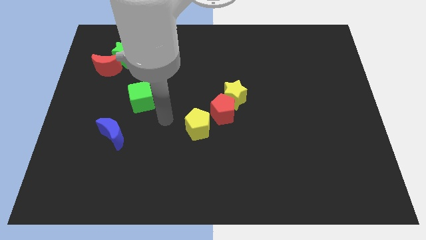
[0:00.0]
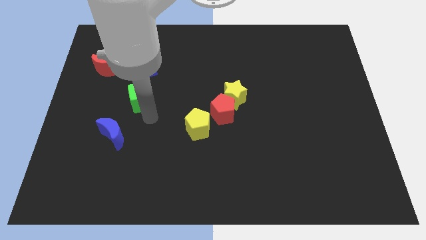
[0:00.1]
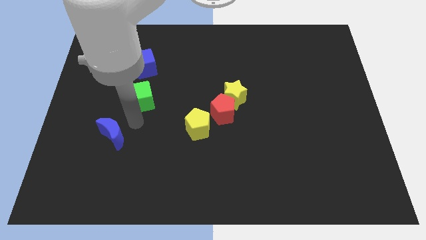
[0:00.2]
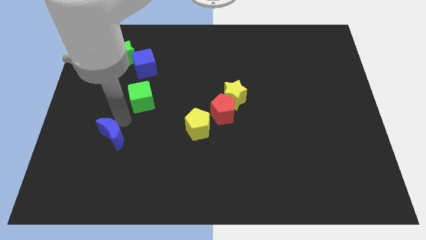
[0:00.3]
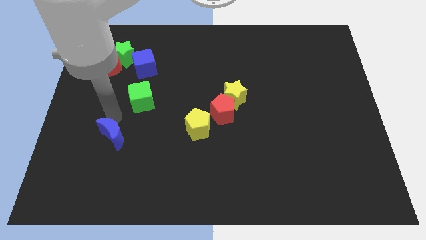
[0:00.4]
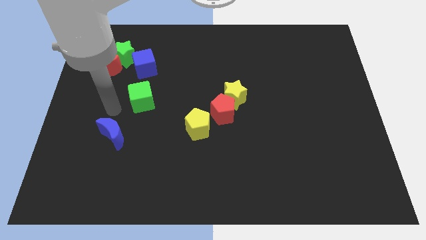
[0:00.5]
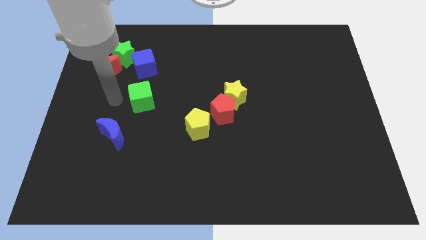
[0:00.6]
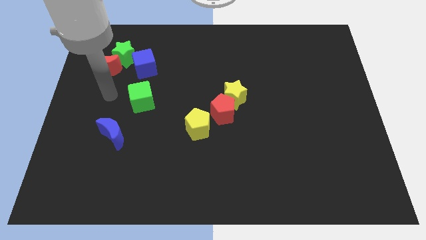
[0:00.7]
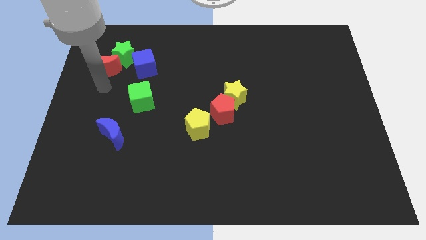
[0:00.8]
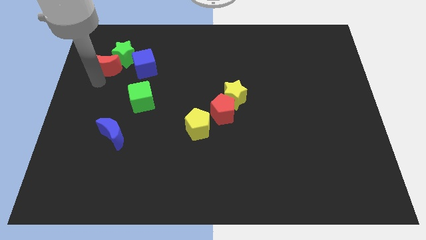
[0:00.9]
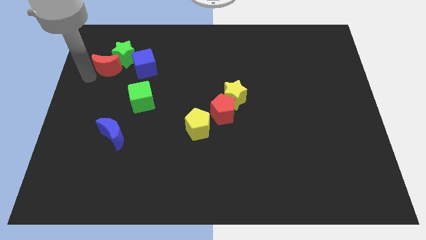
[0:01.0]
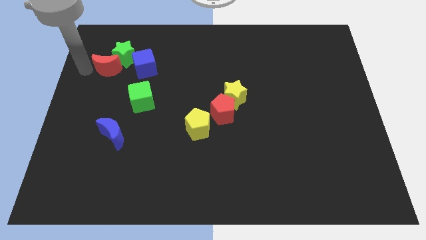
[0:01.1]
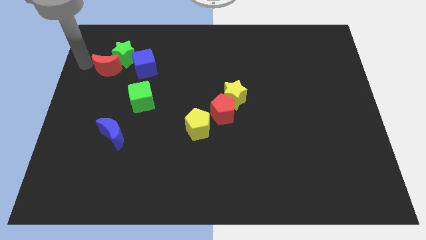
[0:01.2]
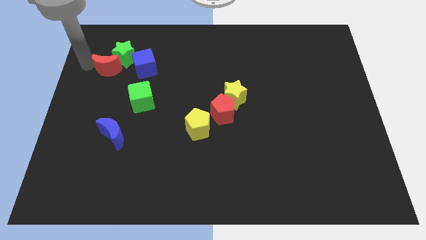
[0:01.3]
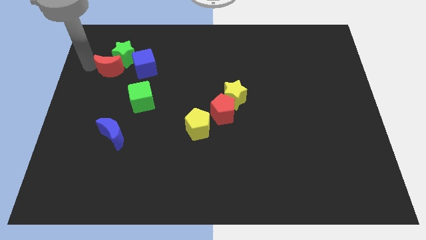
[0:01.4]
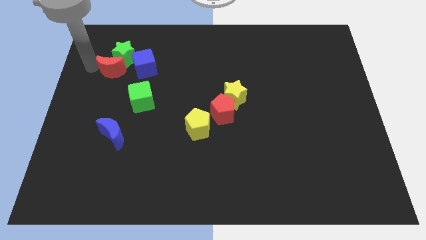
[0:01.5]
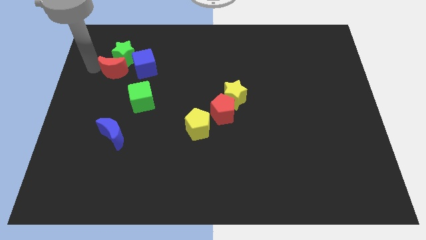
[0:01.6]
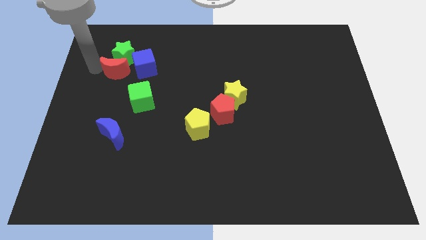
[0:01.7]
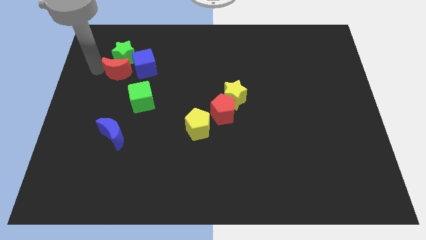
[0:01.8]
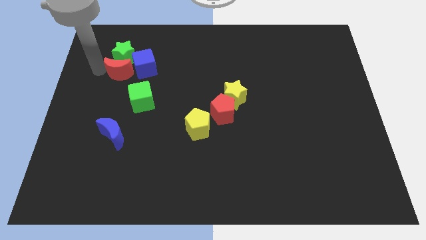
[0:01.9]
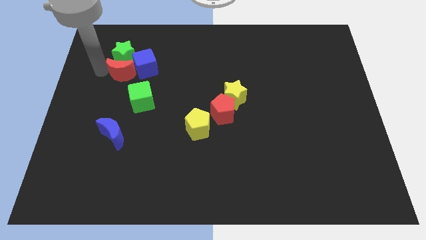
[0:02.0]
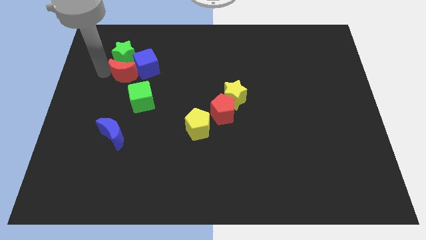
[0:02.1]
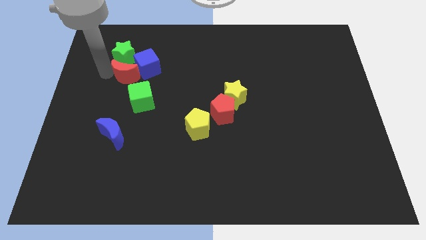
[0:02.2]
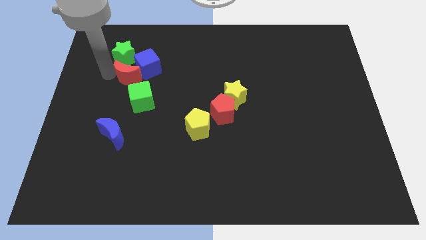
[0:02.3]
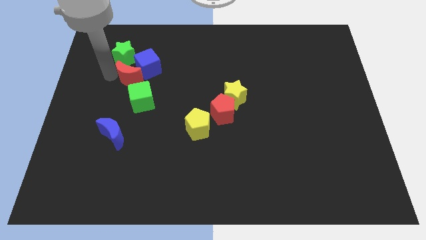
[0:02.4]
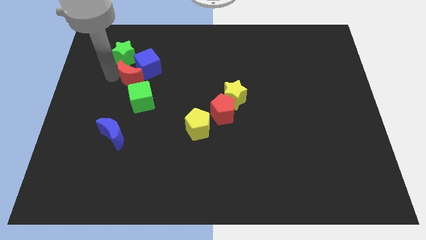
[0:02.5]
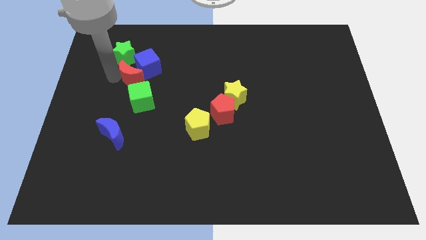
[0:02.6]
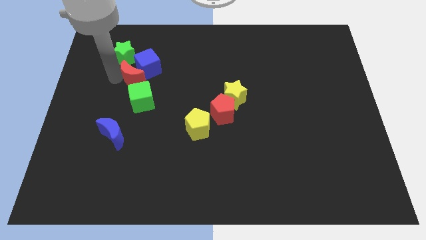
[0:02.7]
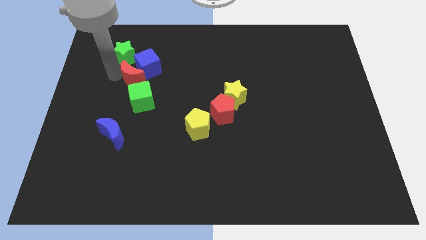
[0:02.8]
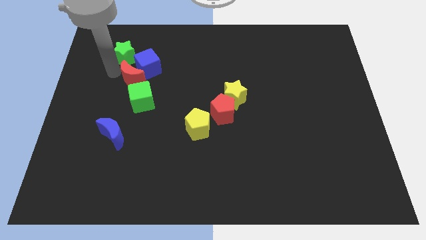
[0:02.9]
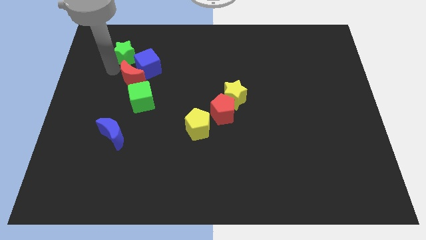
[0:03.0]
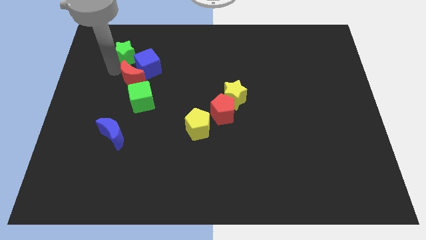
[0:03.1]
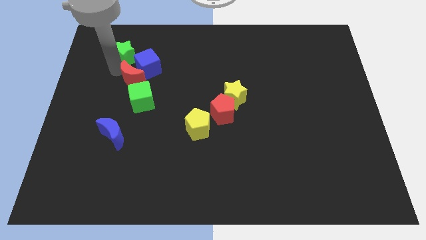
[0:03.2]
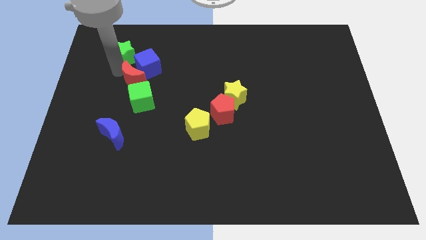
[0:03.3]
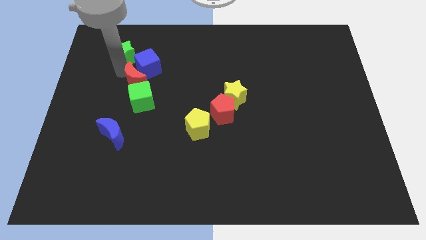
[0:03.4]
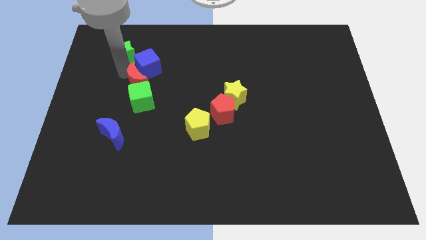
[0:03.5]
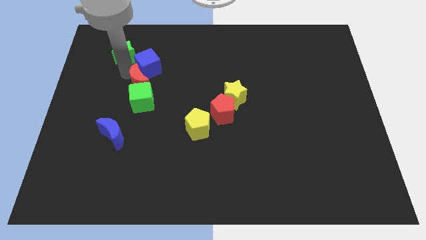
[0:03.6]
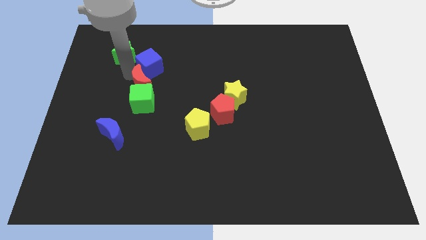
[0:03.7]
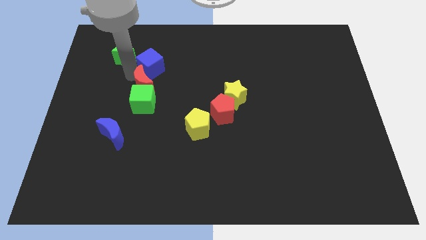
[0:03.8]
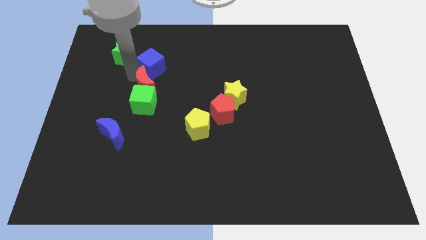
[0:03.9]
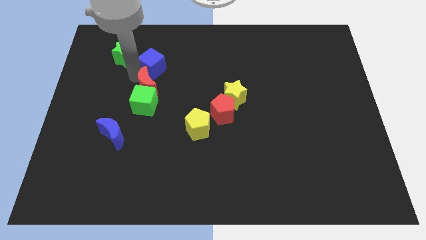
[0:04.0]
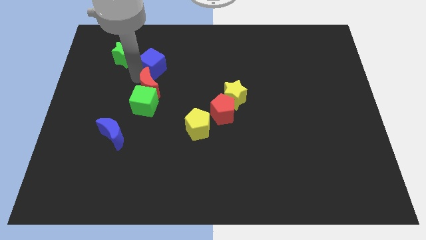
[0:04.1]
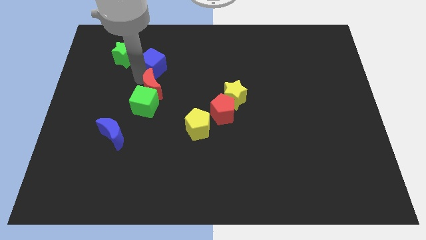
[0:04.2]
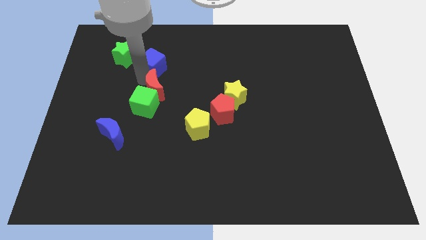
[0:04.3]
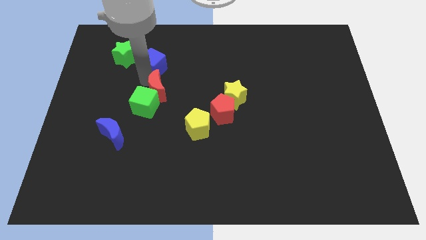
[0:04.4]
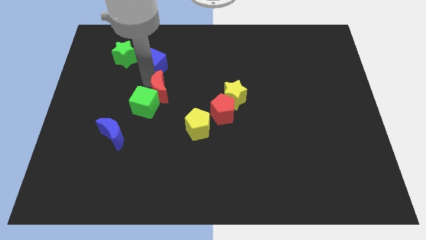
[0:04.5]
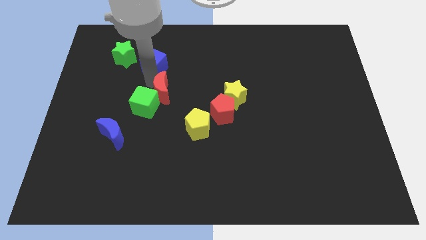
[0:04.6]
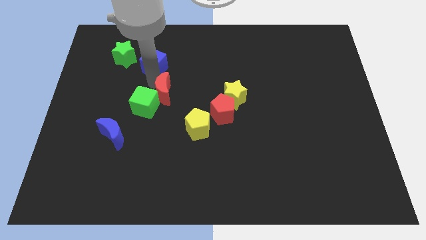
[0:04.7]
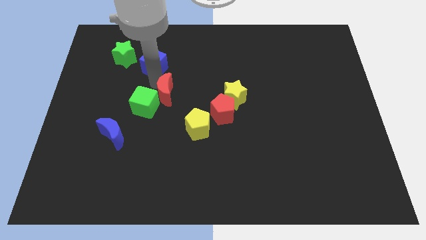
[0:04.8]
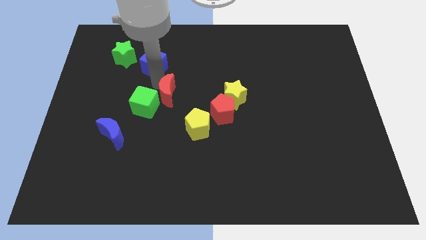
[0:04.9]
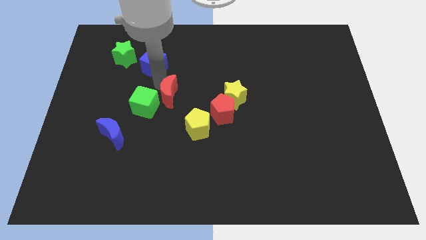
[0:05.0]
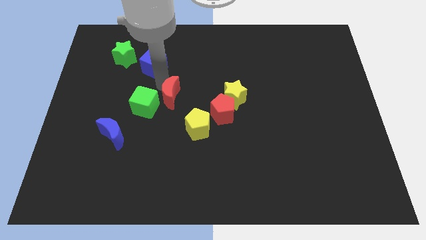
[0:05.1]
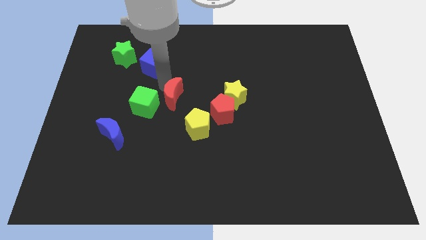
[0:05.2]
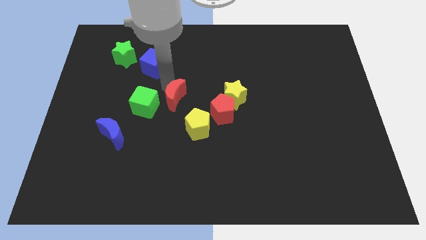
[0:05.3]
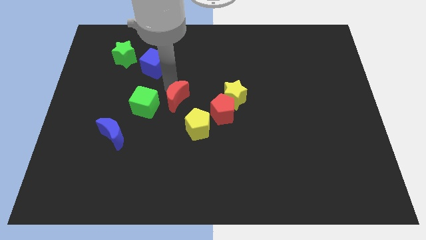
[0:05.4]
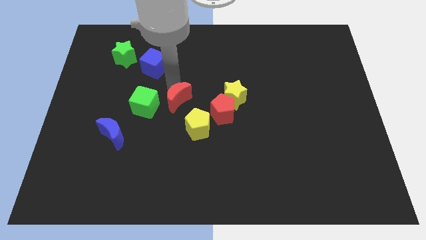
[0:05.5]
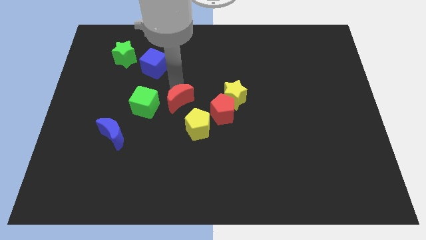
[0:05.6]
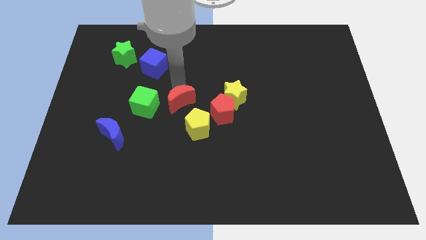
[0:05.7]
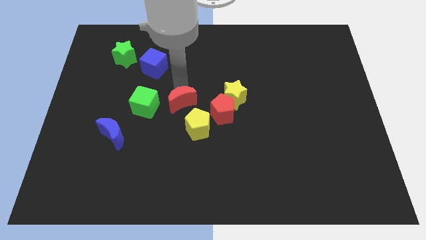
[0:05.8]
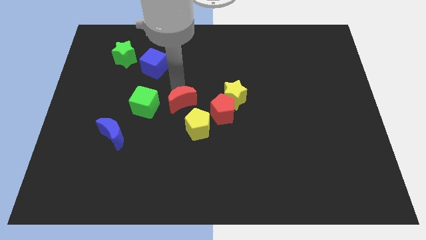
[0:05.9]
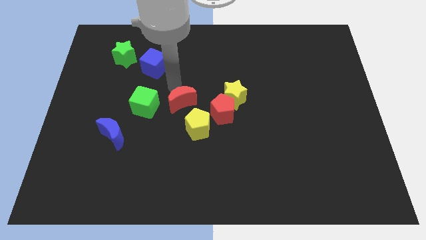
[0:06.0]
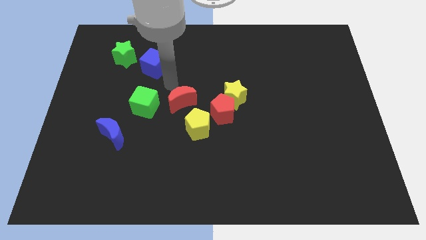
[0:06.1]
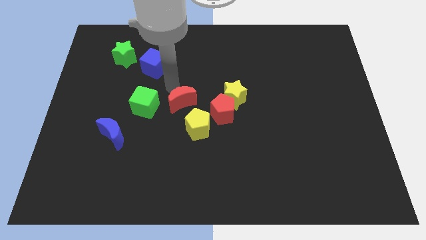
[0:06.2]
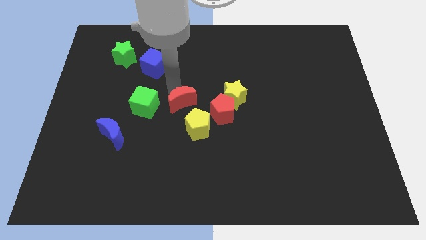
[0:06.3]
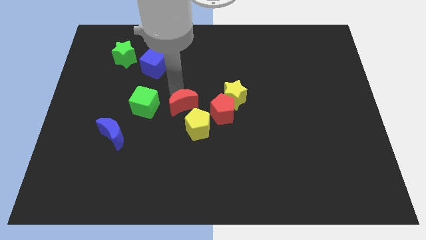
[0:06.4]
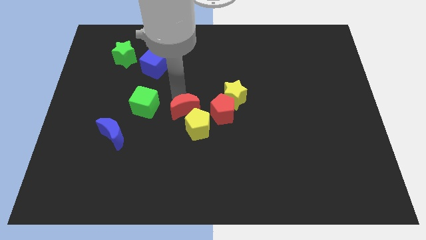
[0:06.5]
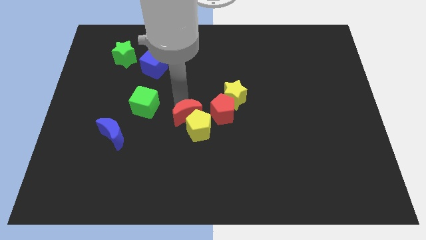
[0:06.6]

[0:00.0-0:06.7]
move the red moon towards the yellow pentagon

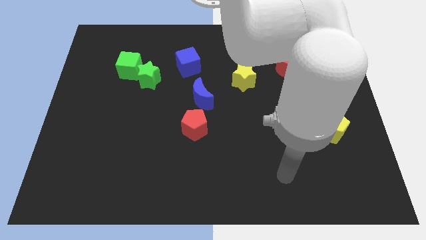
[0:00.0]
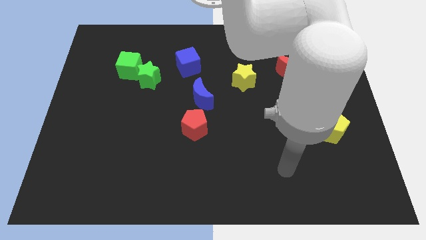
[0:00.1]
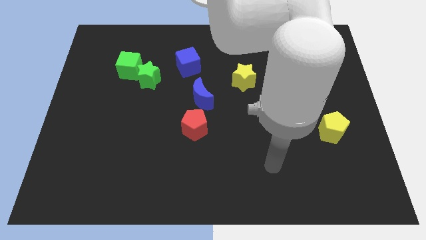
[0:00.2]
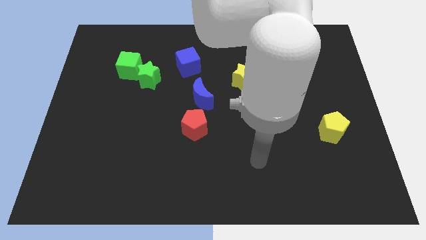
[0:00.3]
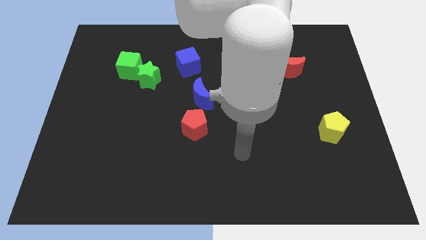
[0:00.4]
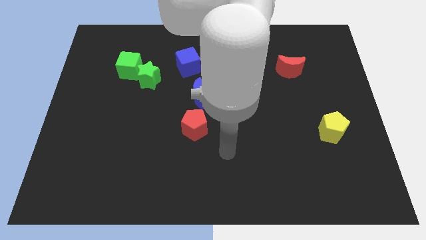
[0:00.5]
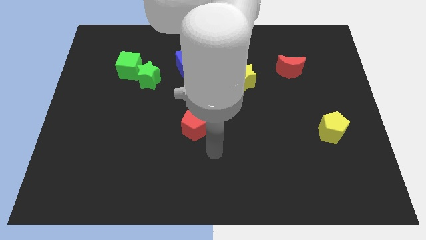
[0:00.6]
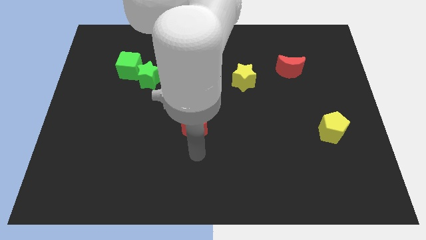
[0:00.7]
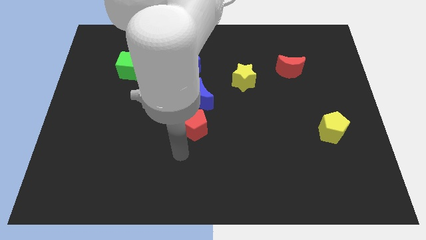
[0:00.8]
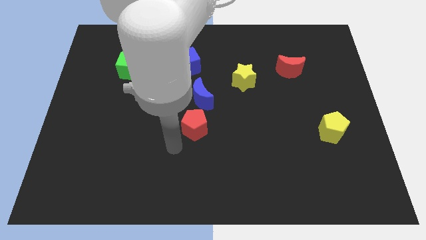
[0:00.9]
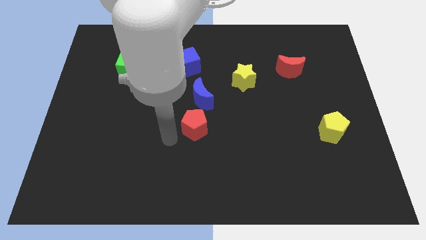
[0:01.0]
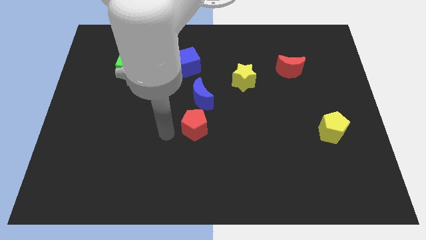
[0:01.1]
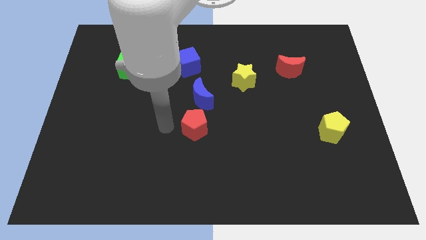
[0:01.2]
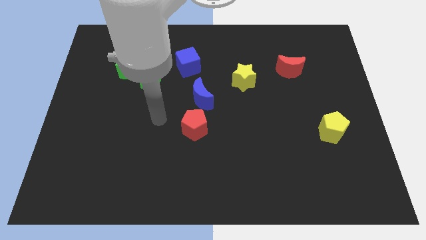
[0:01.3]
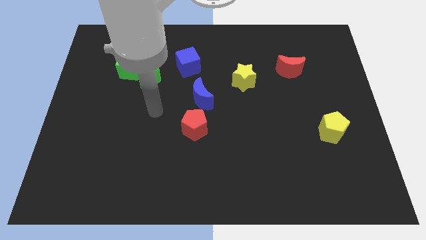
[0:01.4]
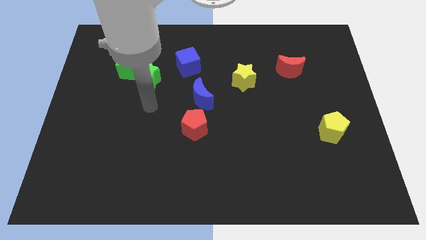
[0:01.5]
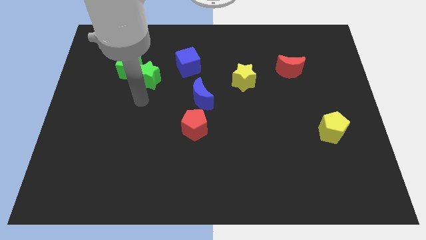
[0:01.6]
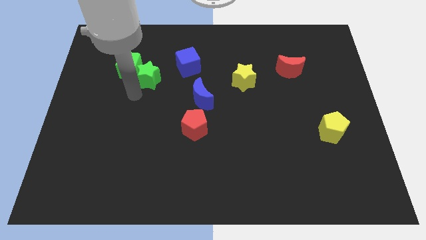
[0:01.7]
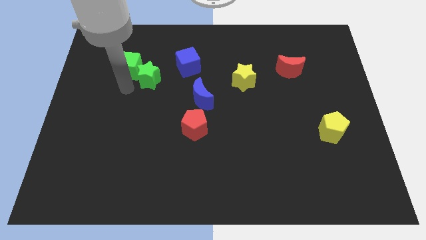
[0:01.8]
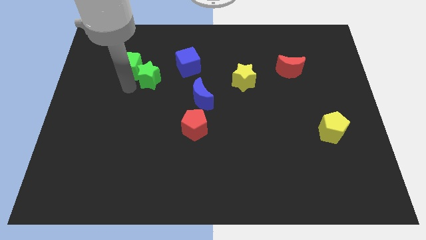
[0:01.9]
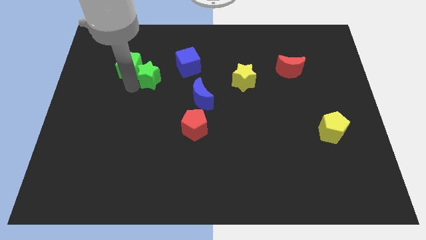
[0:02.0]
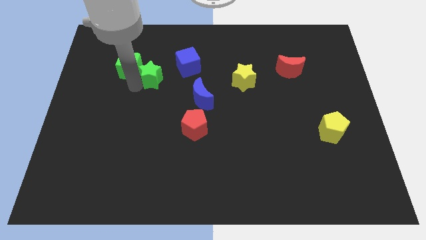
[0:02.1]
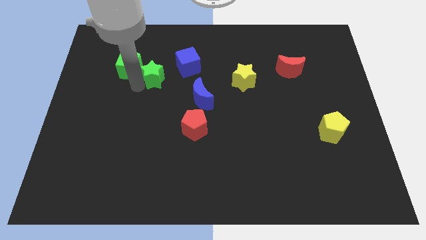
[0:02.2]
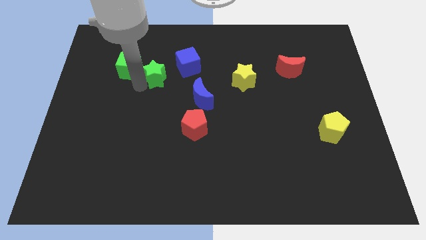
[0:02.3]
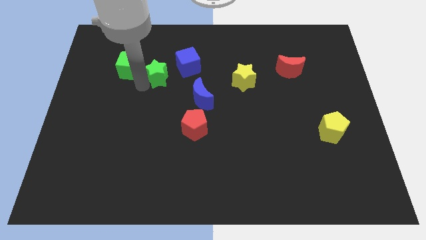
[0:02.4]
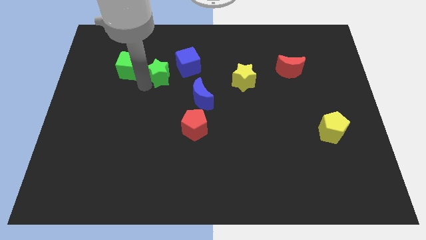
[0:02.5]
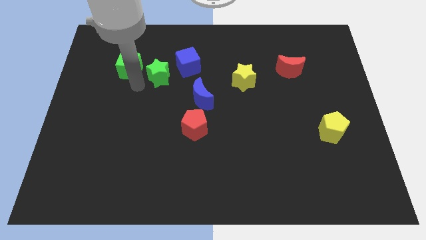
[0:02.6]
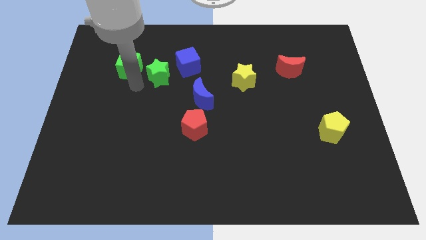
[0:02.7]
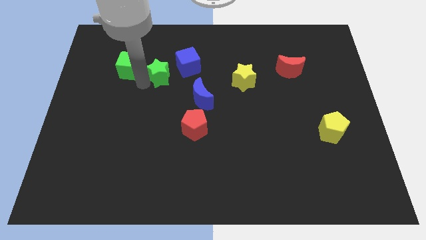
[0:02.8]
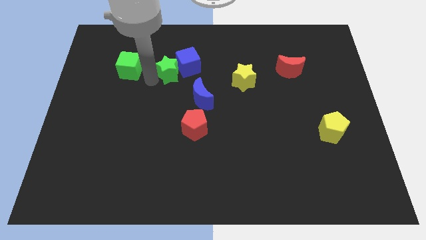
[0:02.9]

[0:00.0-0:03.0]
put the green star next to the blue cube
